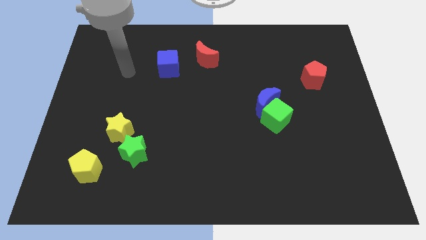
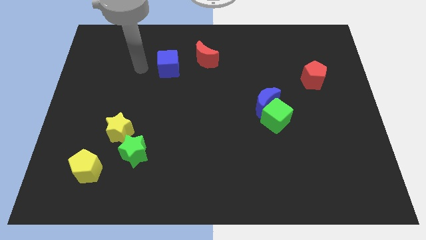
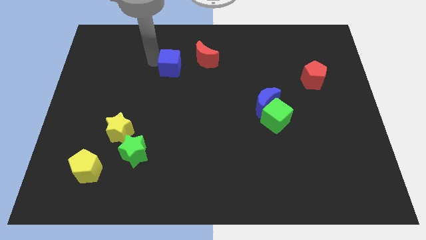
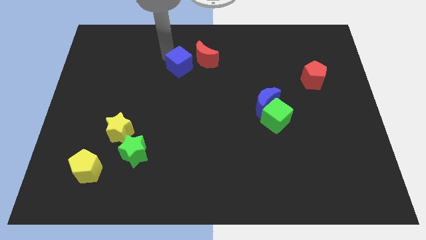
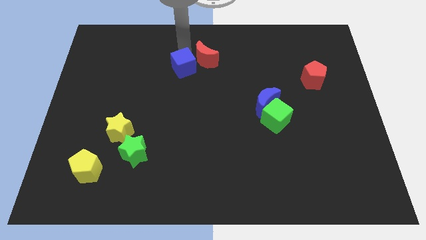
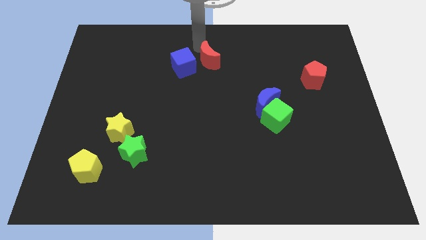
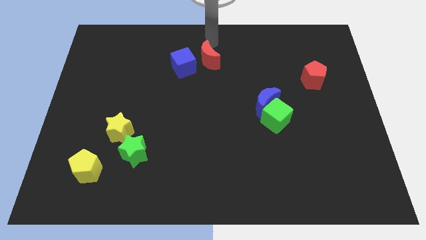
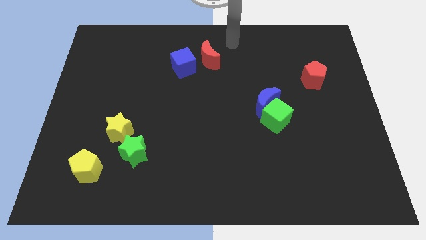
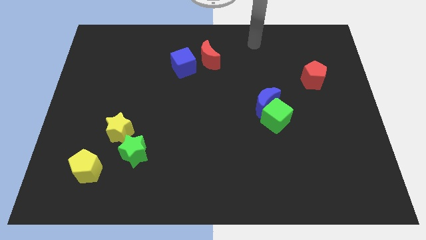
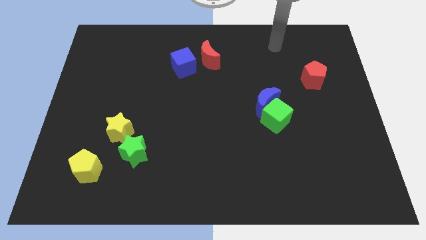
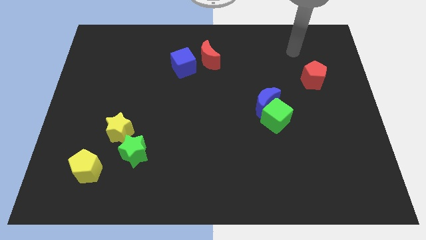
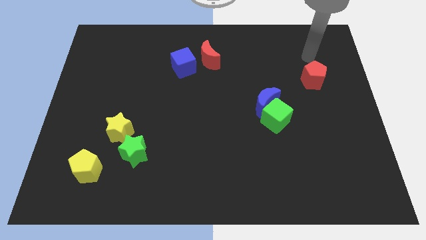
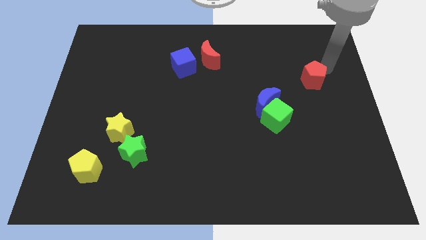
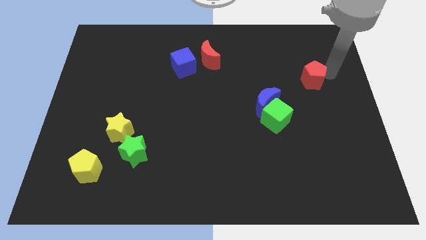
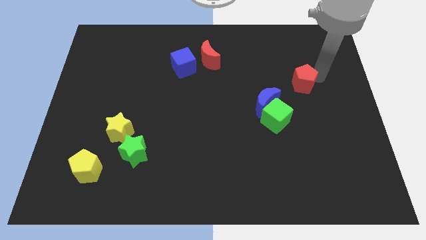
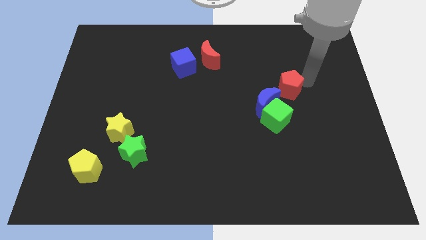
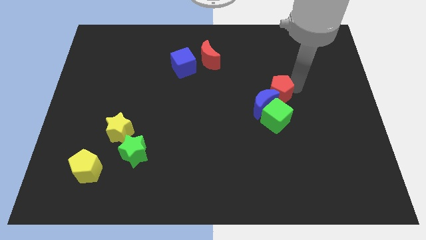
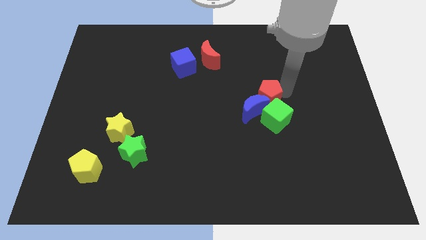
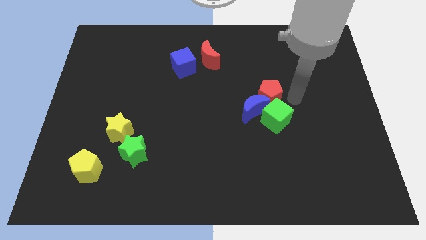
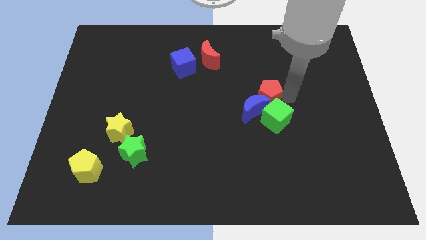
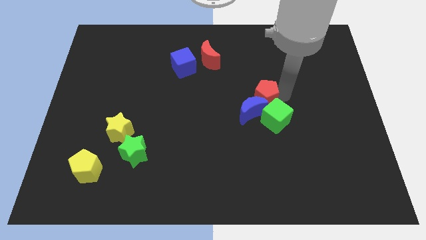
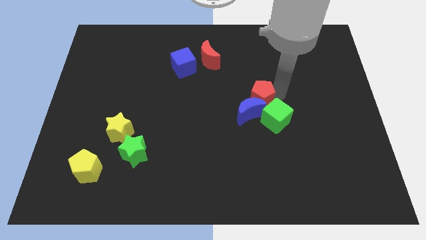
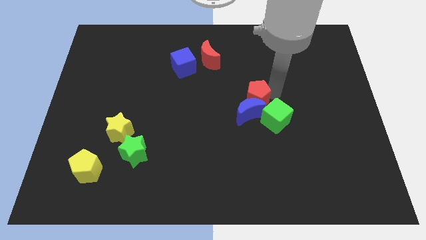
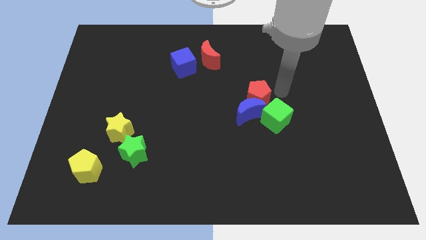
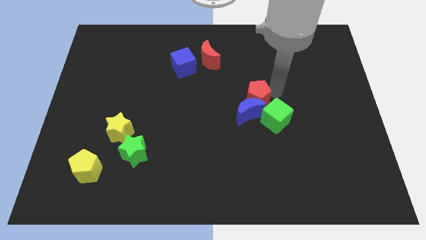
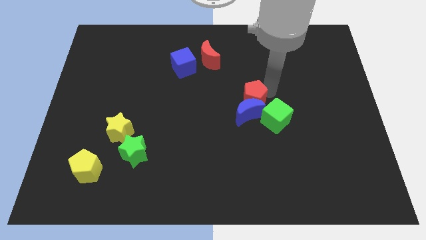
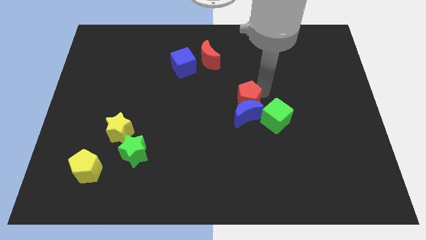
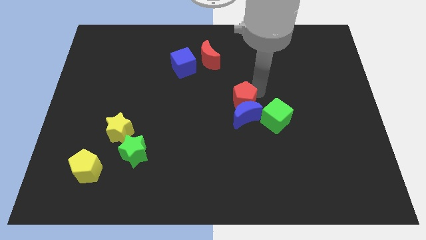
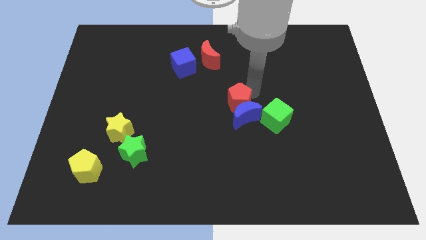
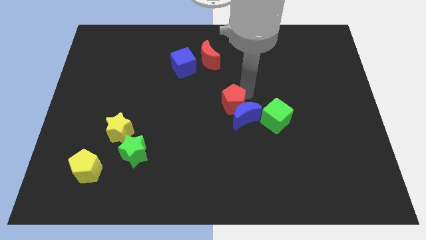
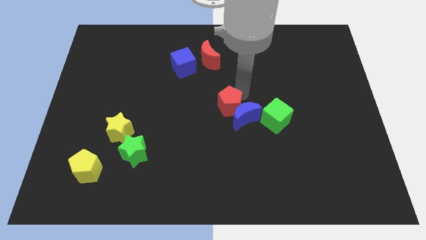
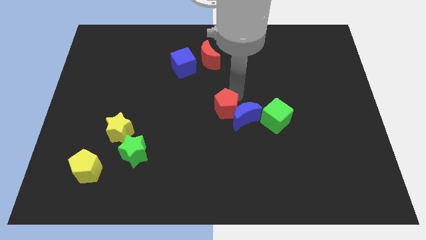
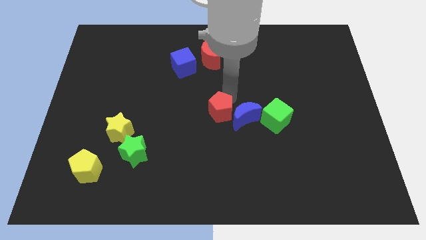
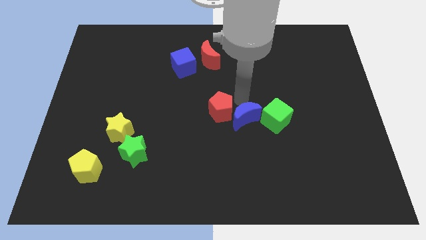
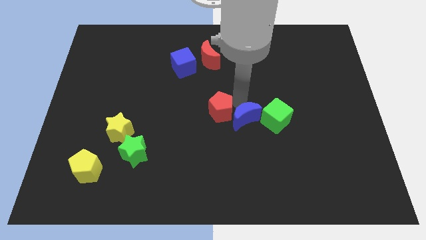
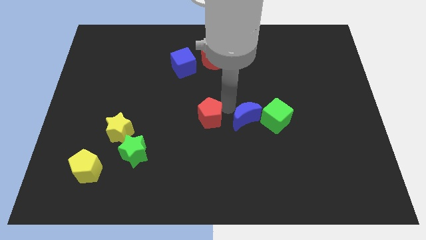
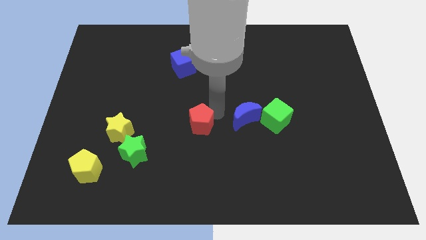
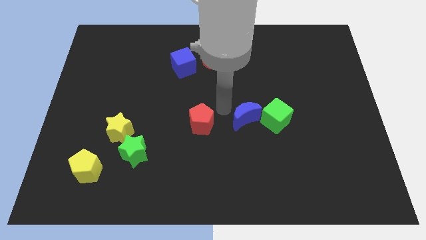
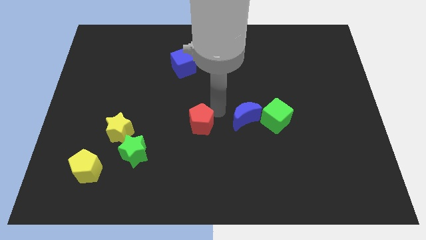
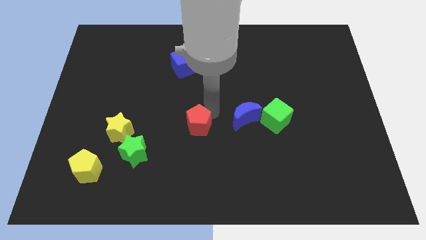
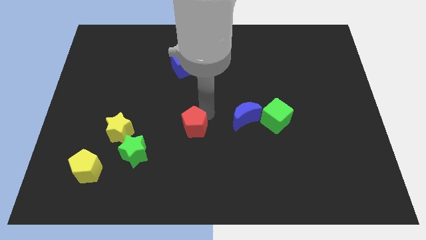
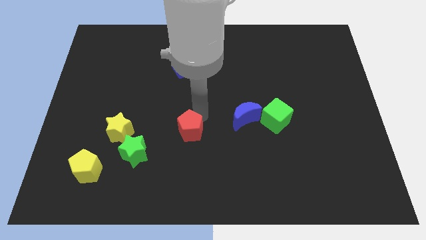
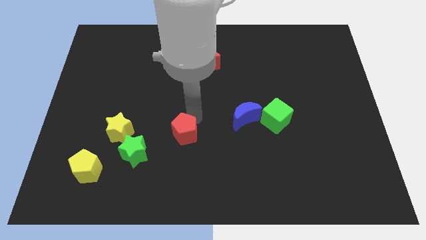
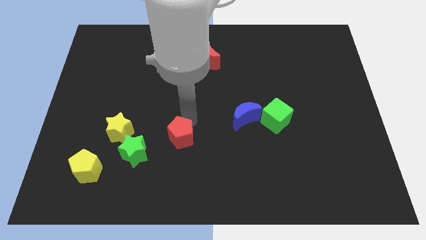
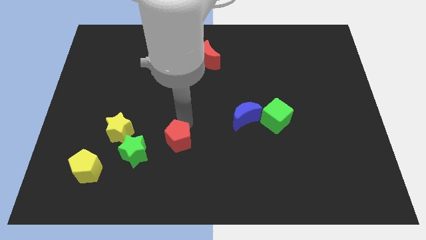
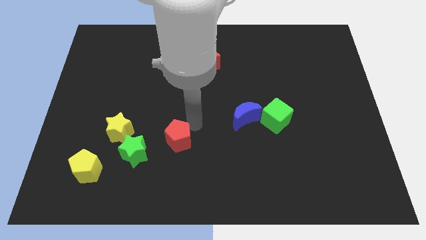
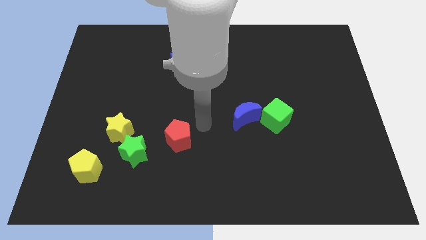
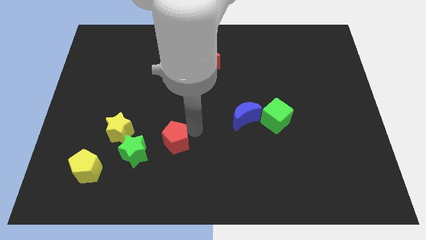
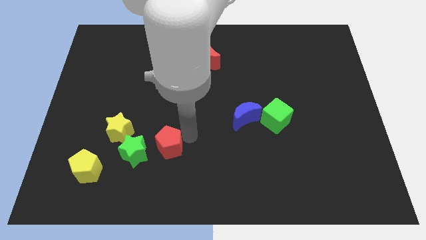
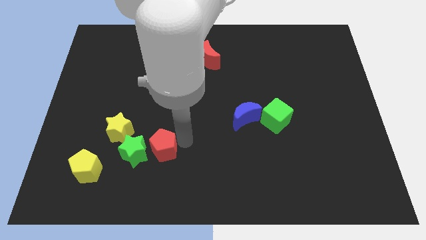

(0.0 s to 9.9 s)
move the red pentagon towards the green star

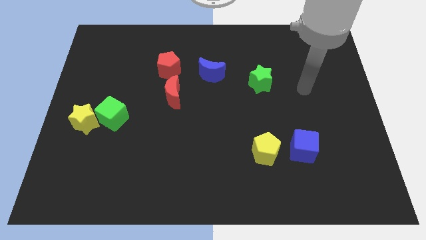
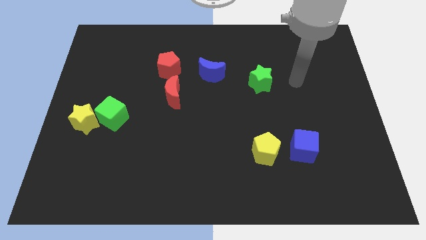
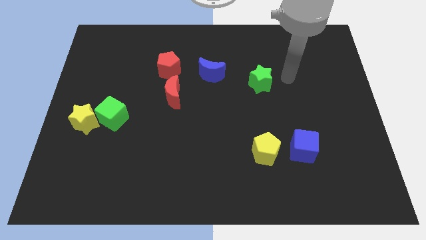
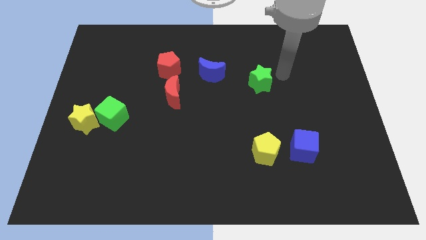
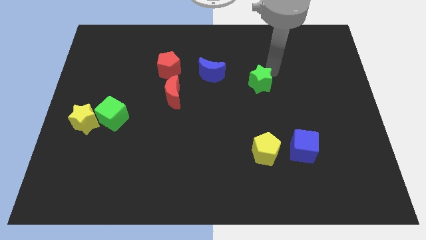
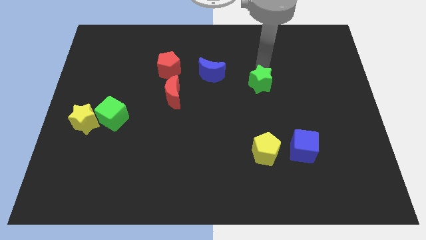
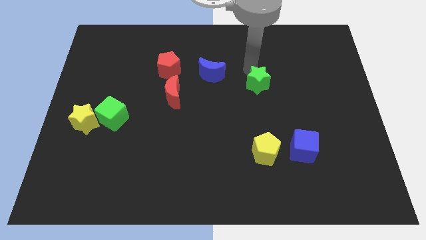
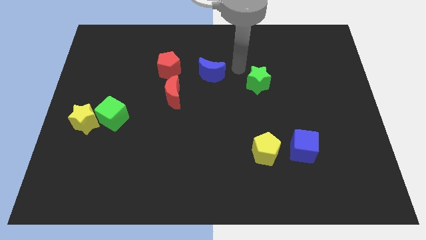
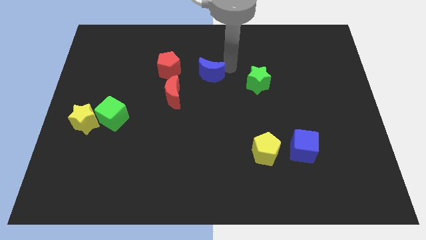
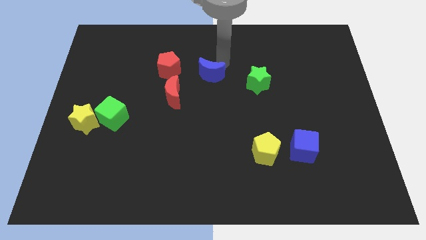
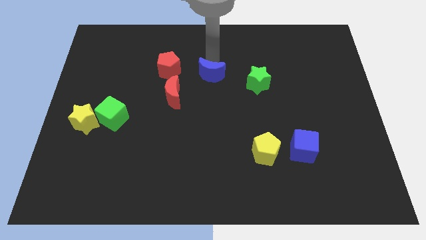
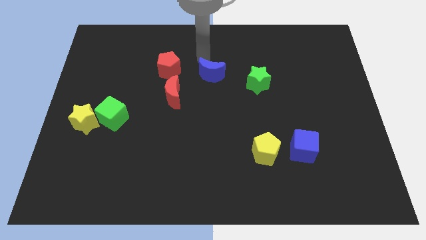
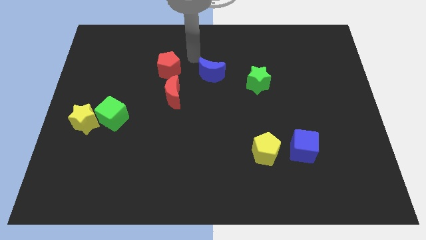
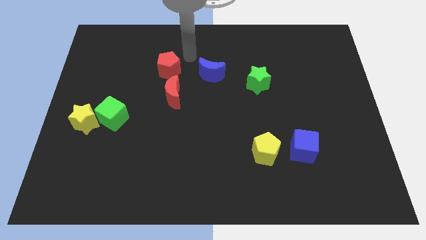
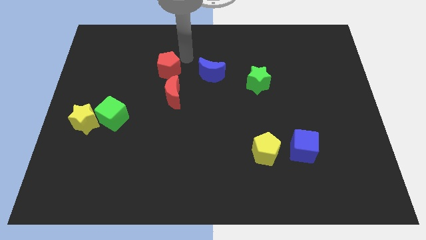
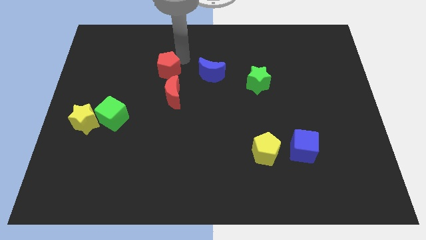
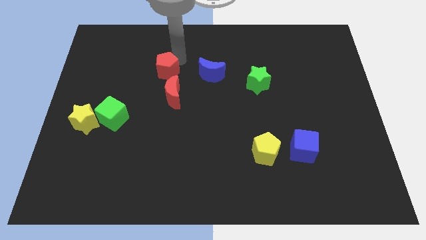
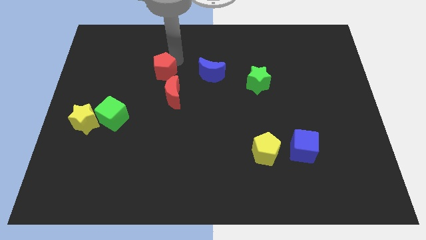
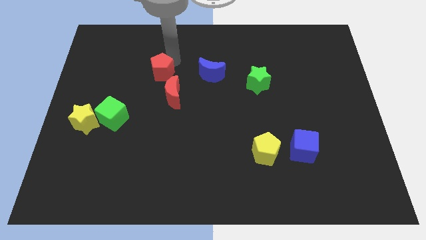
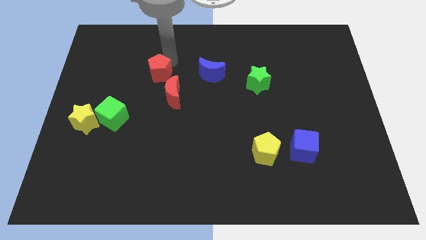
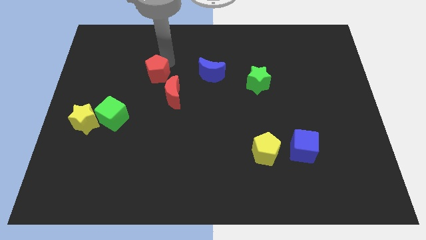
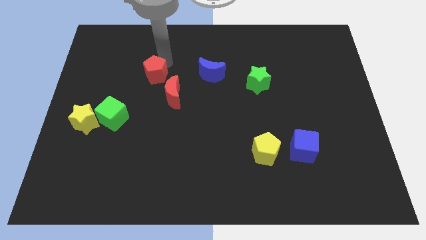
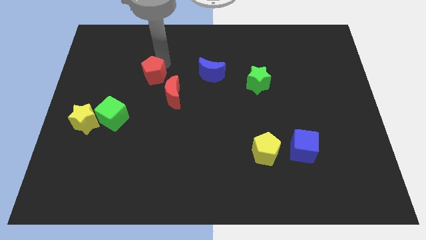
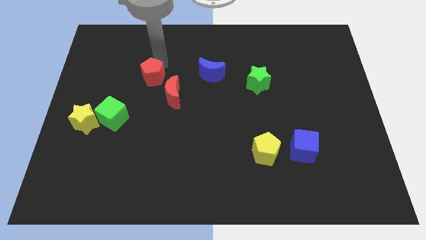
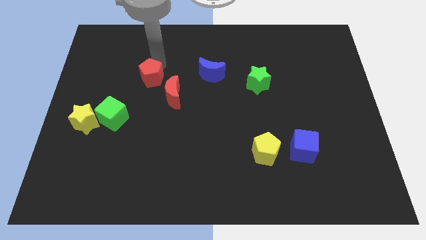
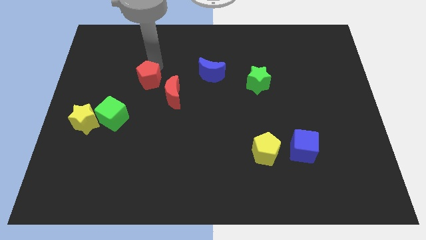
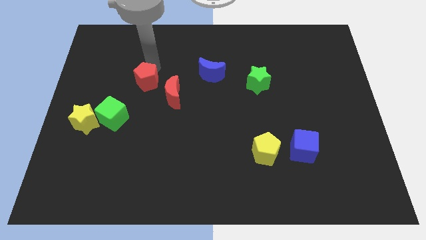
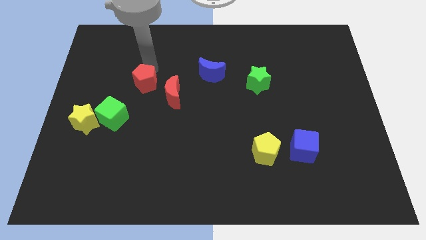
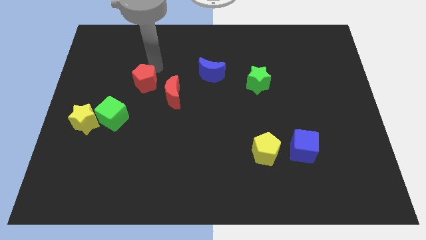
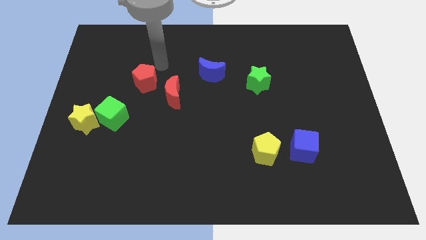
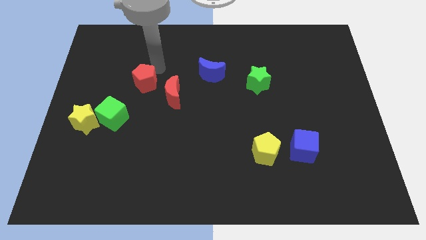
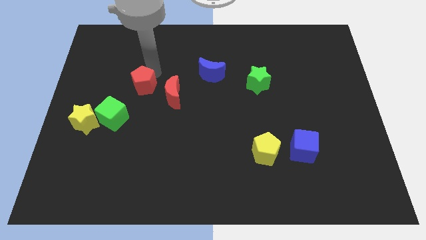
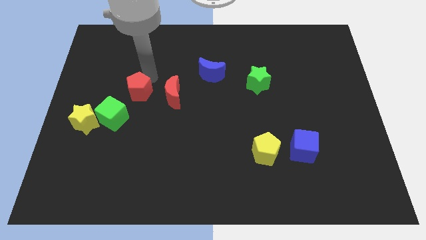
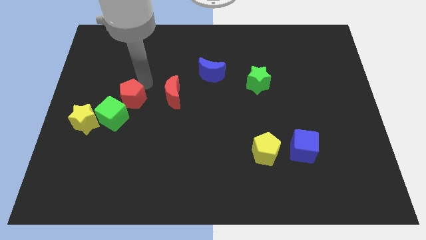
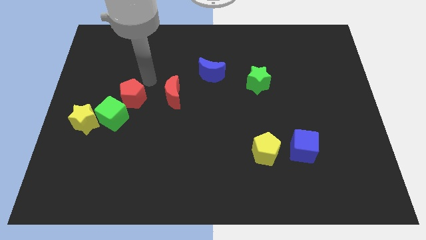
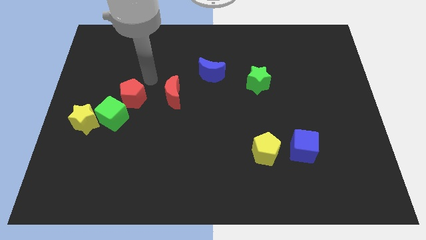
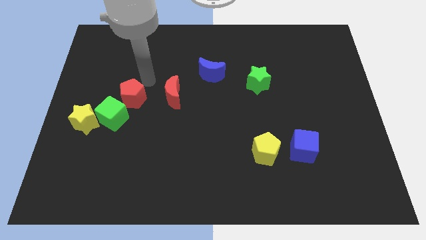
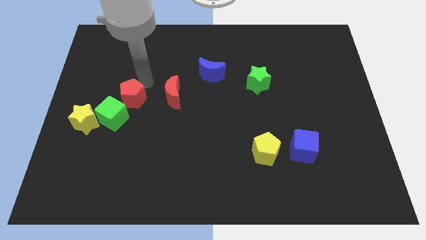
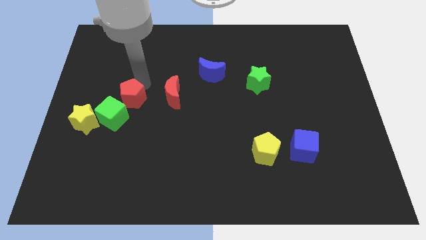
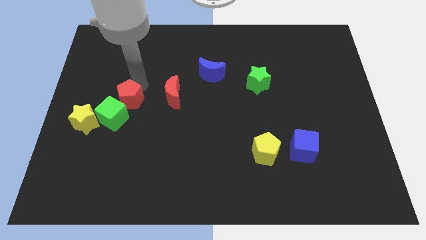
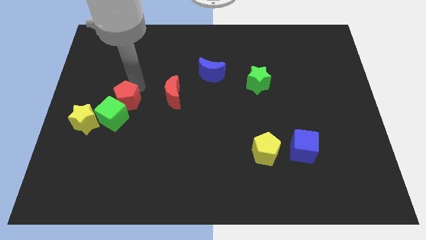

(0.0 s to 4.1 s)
move the red pentagon close to the green cube
